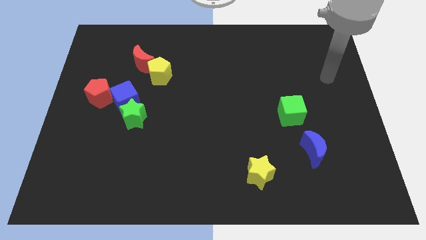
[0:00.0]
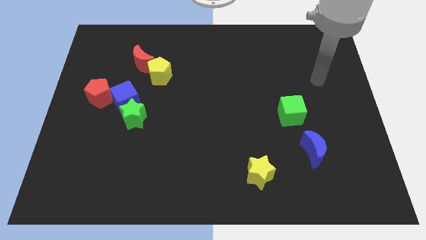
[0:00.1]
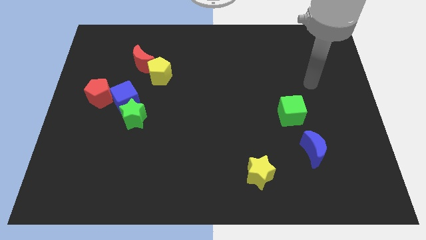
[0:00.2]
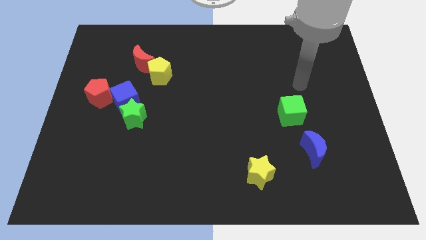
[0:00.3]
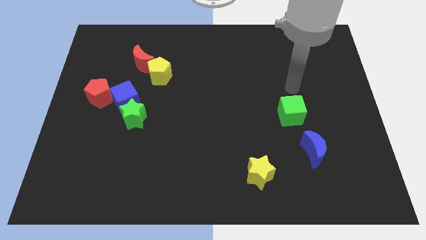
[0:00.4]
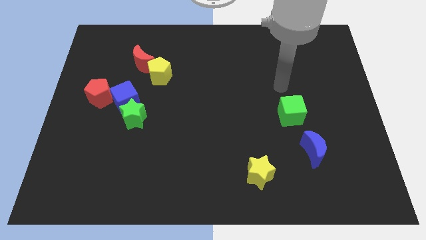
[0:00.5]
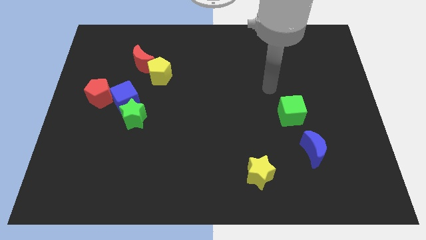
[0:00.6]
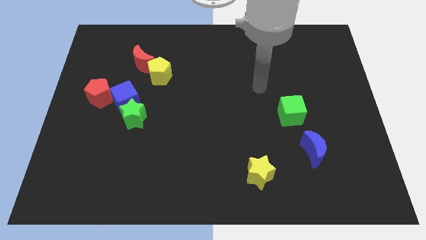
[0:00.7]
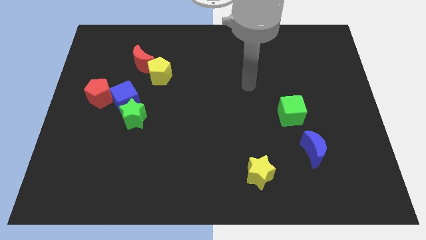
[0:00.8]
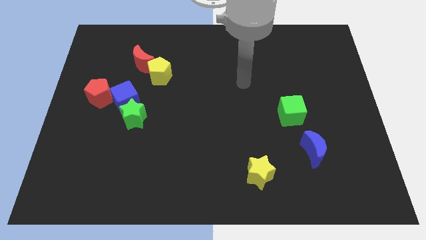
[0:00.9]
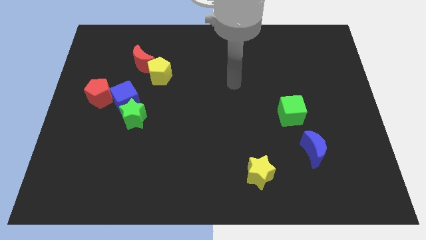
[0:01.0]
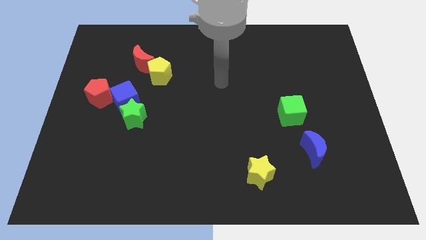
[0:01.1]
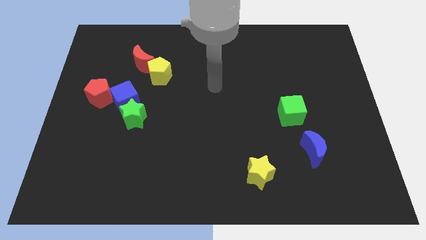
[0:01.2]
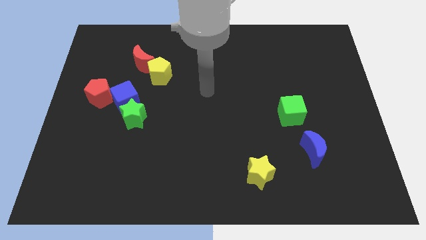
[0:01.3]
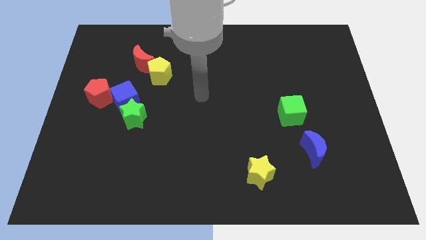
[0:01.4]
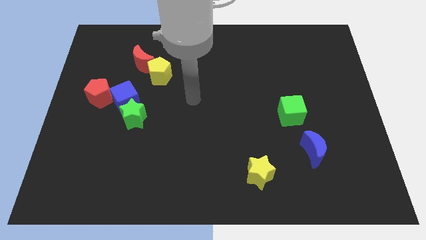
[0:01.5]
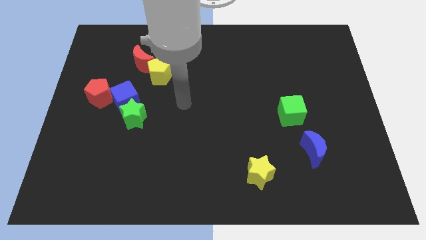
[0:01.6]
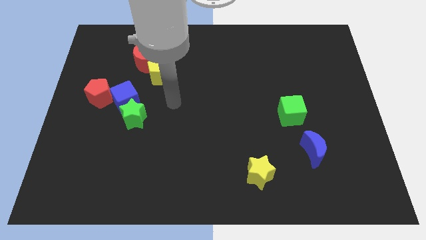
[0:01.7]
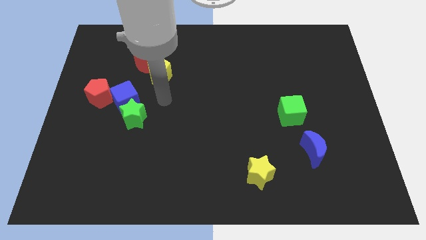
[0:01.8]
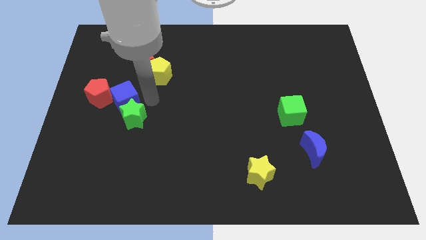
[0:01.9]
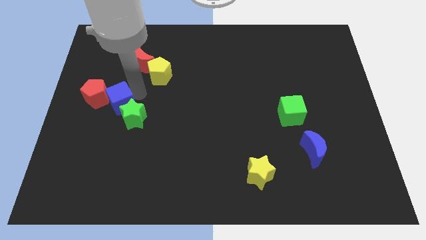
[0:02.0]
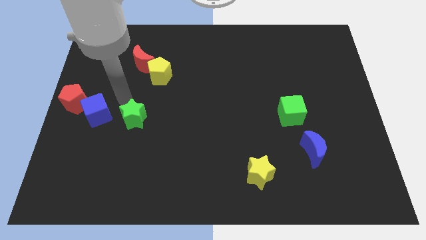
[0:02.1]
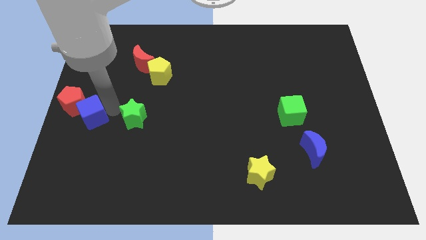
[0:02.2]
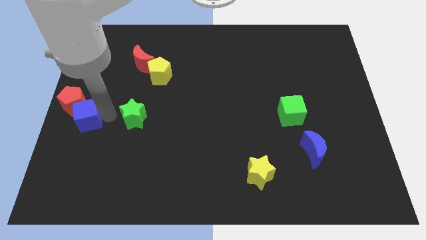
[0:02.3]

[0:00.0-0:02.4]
pull the green star apart from the blue cube

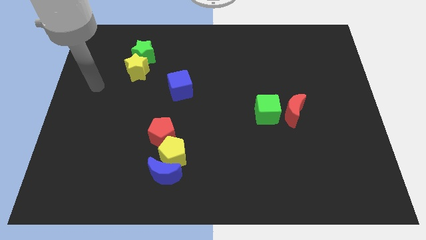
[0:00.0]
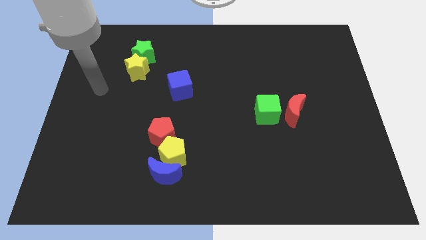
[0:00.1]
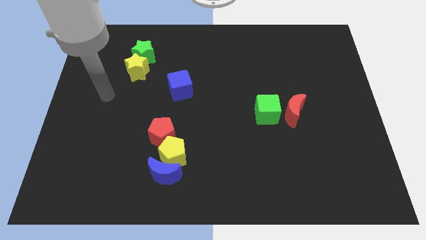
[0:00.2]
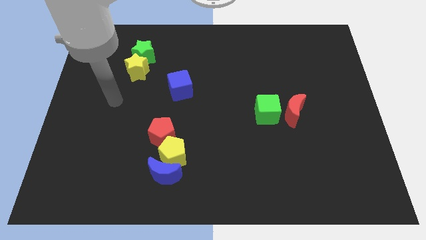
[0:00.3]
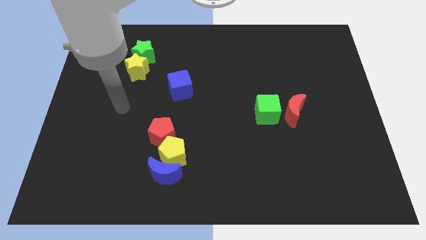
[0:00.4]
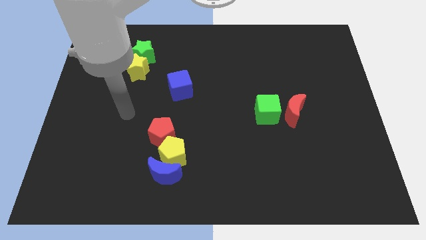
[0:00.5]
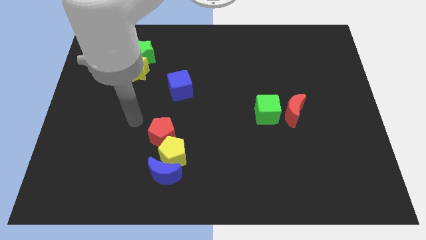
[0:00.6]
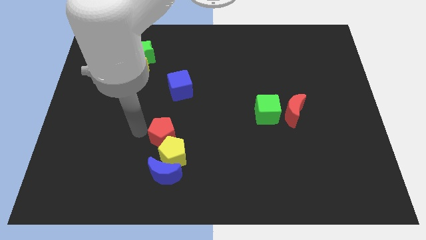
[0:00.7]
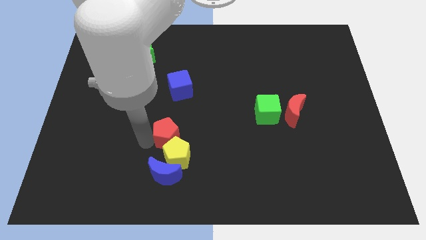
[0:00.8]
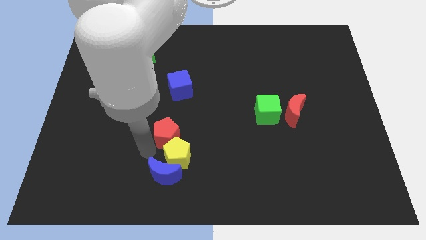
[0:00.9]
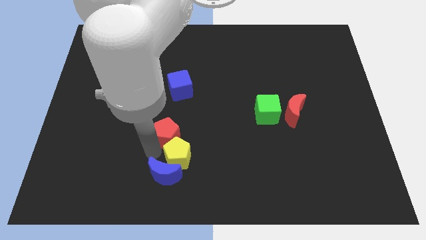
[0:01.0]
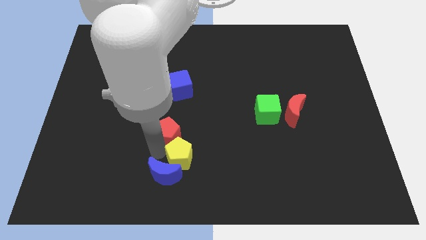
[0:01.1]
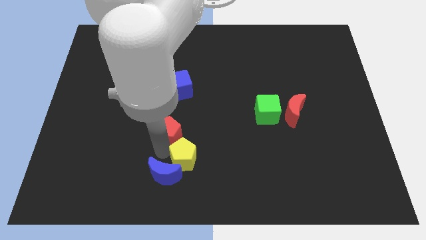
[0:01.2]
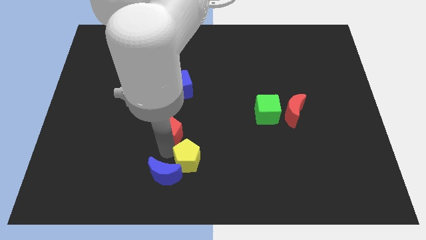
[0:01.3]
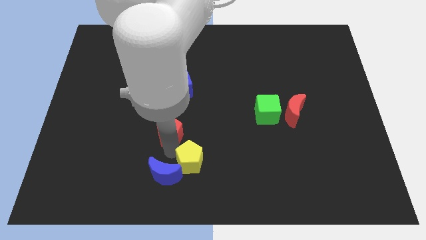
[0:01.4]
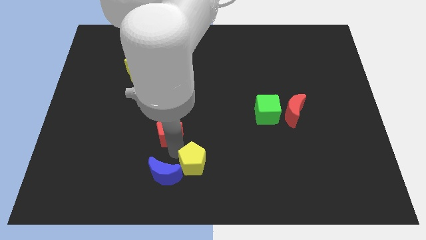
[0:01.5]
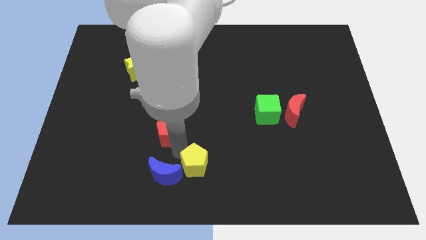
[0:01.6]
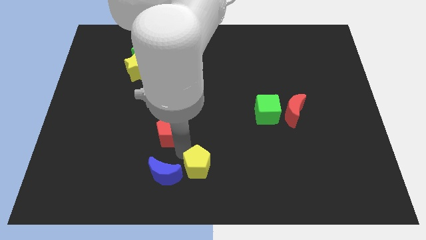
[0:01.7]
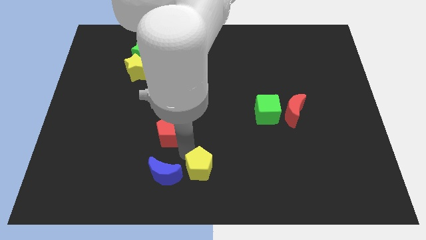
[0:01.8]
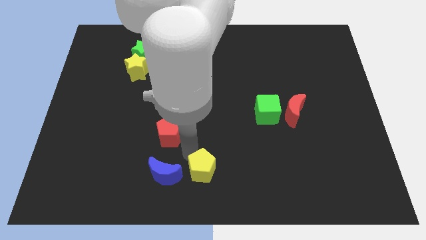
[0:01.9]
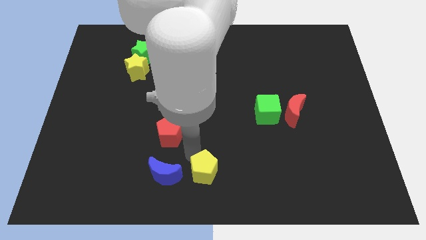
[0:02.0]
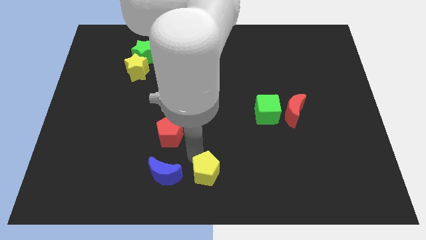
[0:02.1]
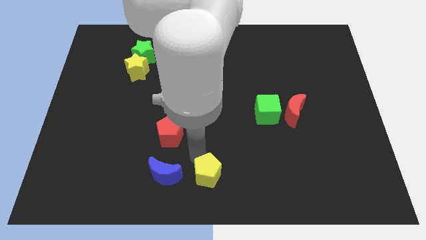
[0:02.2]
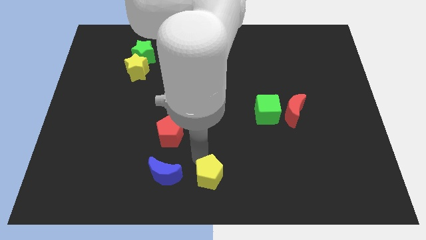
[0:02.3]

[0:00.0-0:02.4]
pull the yellow pentagon apart from the blue moon and red pentagon

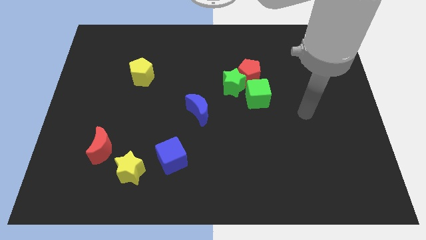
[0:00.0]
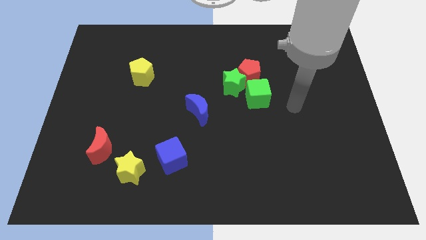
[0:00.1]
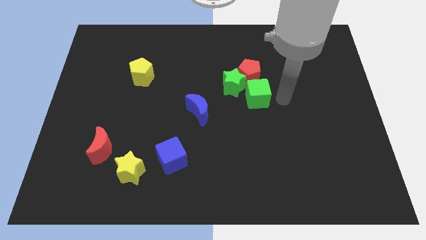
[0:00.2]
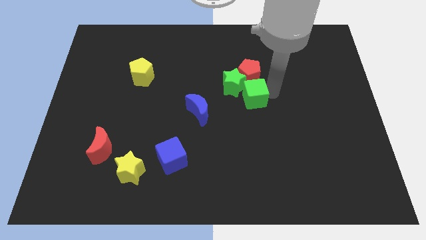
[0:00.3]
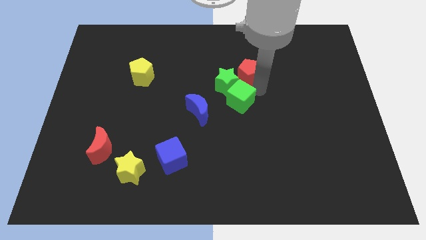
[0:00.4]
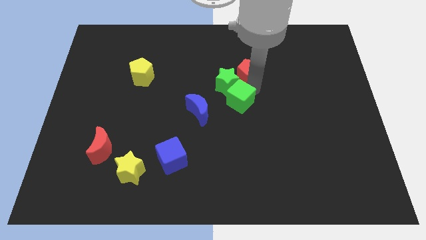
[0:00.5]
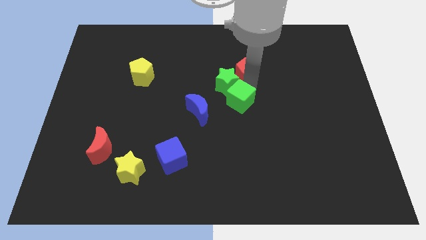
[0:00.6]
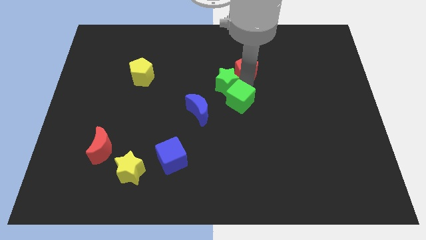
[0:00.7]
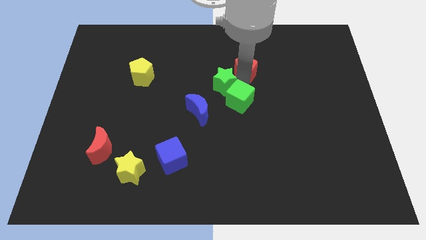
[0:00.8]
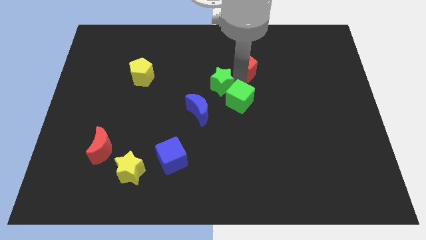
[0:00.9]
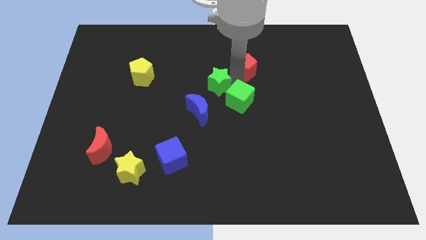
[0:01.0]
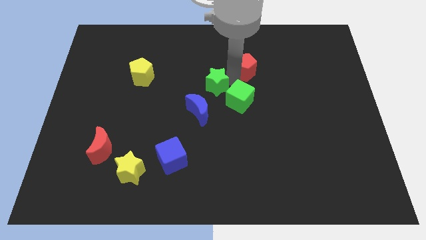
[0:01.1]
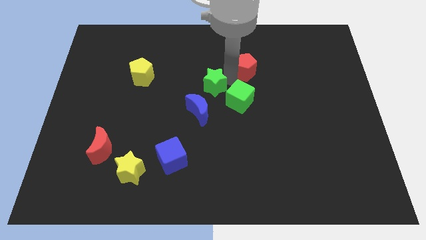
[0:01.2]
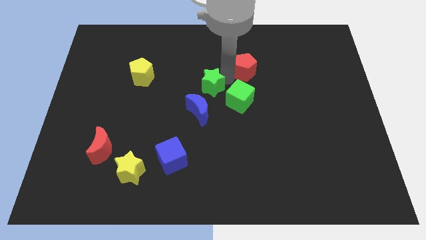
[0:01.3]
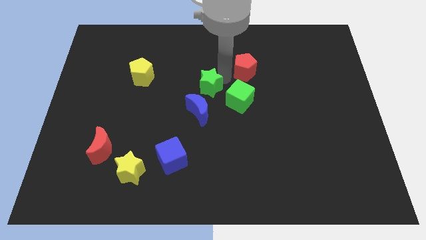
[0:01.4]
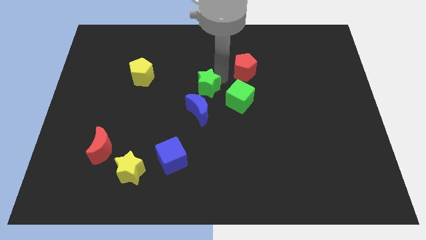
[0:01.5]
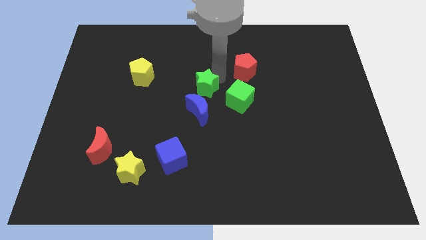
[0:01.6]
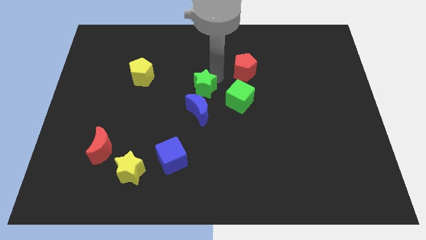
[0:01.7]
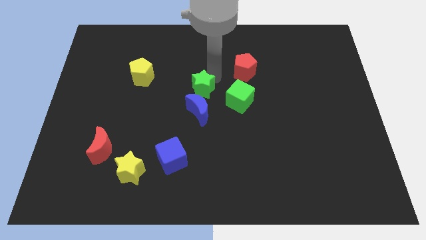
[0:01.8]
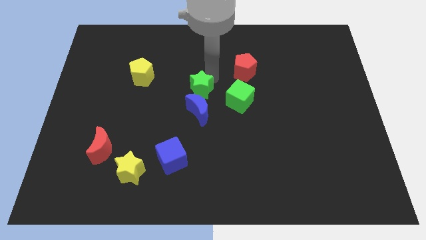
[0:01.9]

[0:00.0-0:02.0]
move the green star away from the red pentagon and green cube

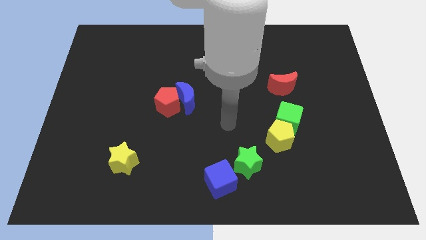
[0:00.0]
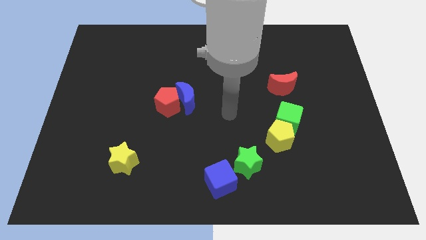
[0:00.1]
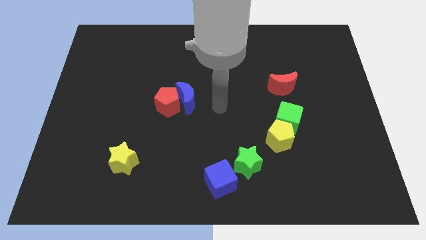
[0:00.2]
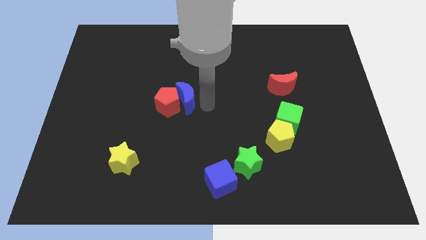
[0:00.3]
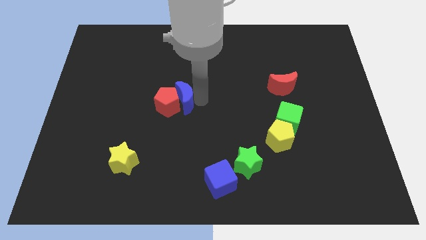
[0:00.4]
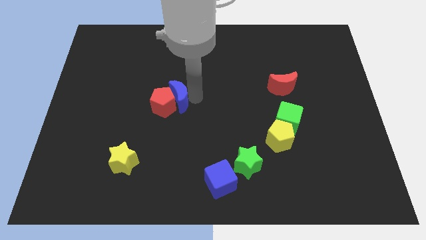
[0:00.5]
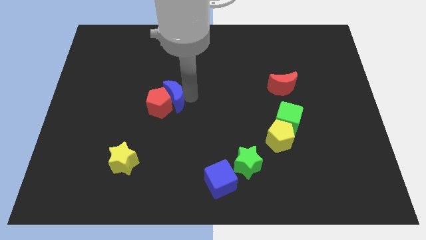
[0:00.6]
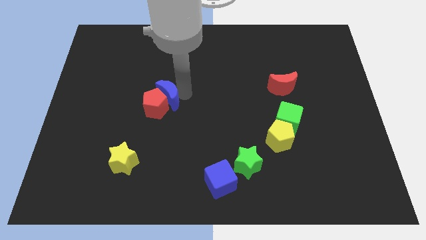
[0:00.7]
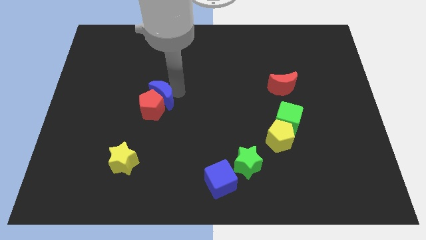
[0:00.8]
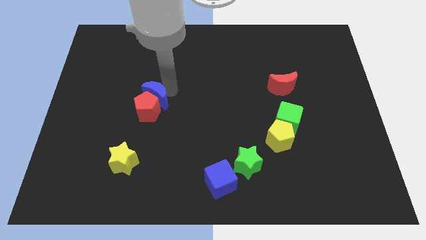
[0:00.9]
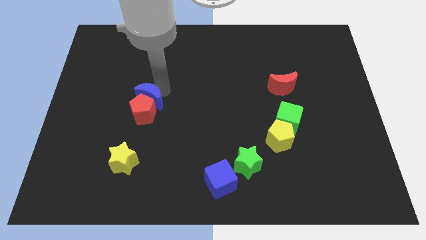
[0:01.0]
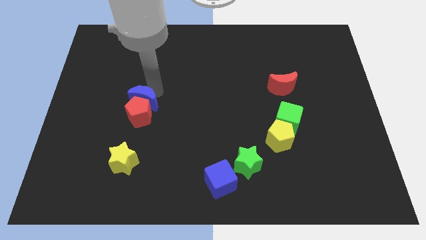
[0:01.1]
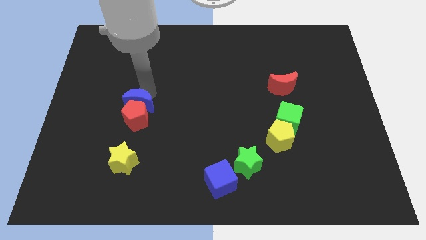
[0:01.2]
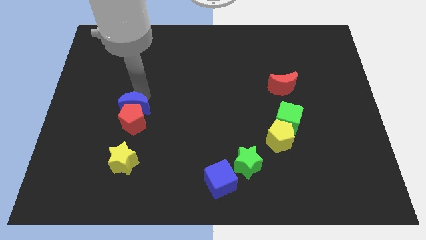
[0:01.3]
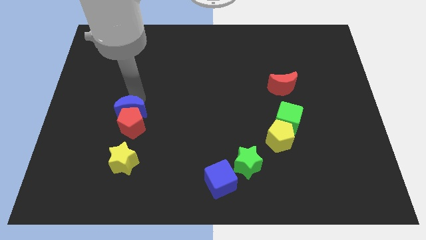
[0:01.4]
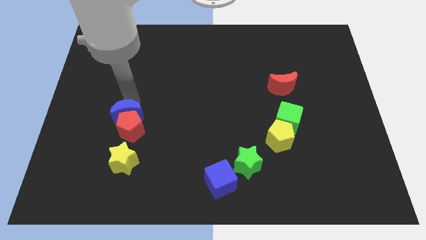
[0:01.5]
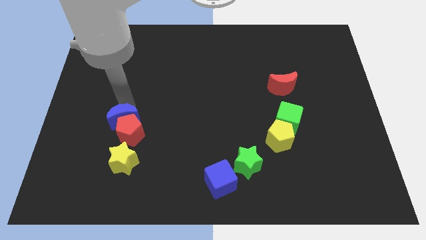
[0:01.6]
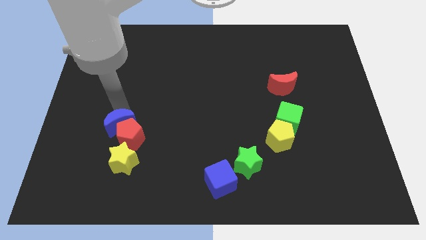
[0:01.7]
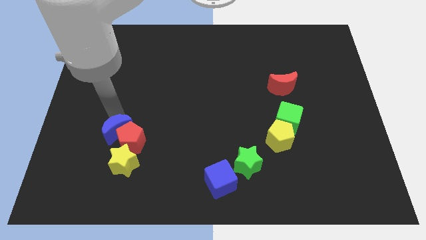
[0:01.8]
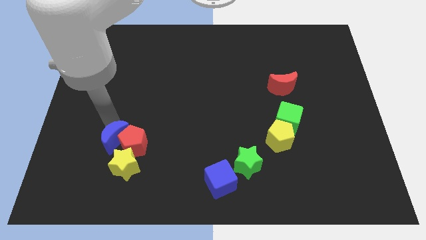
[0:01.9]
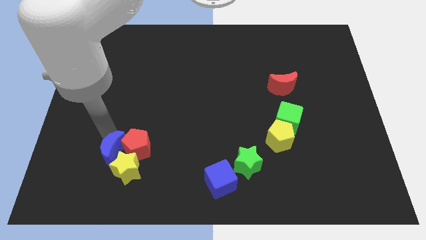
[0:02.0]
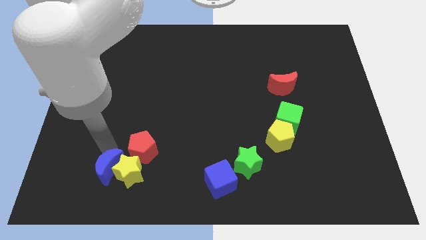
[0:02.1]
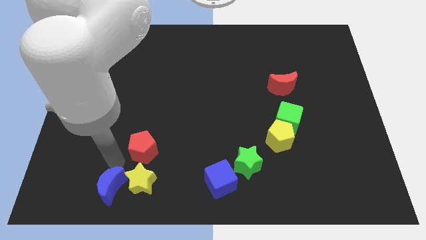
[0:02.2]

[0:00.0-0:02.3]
pull the red pentagon apart from the blue moon

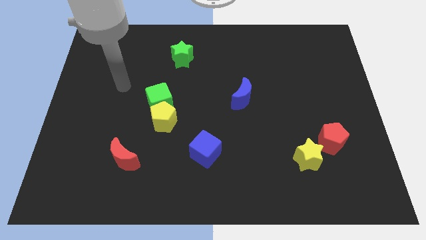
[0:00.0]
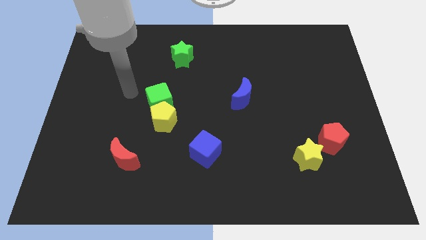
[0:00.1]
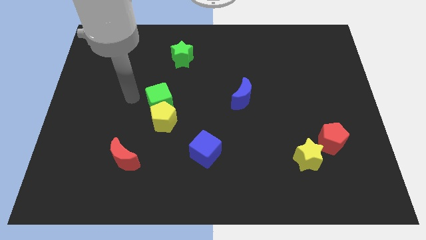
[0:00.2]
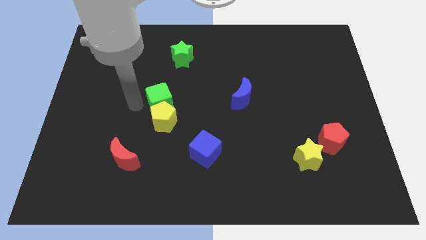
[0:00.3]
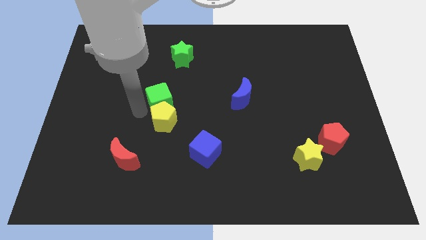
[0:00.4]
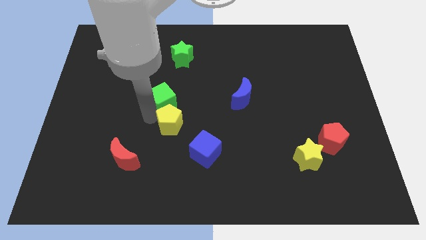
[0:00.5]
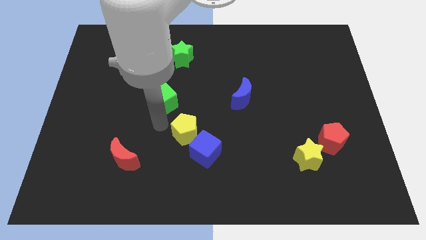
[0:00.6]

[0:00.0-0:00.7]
separate the green cube from the yellow pentagon
